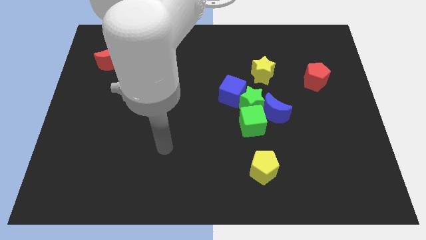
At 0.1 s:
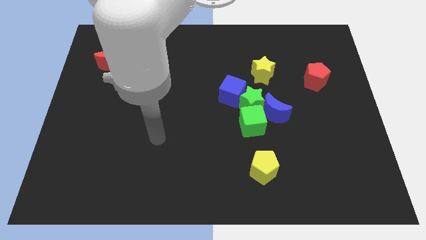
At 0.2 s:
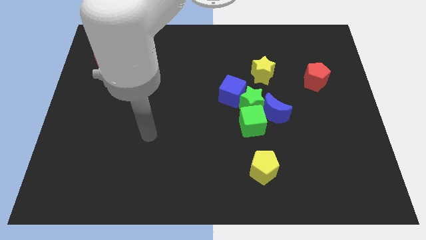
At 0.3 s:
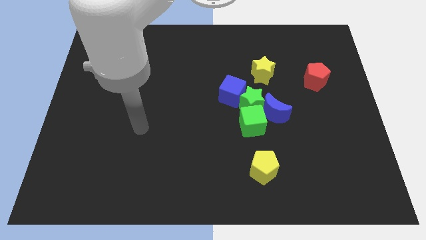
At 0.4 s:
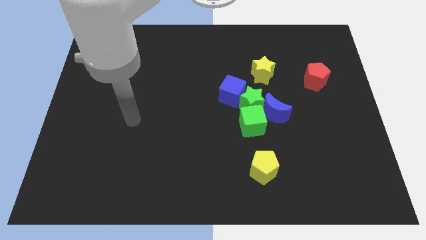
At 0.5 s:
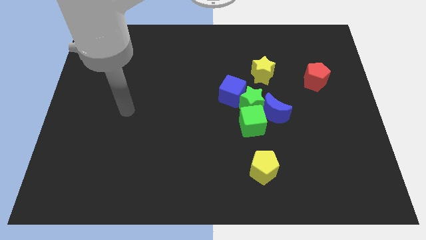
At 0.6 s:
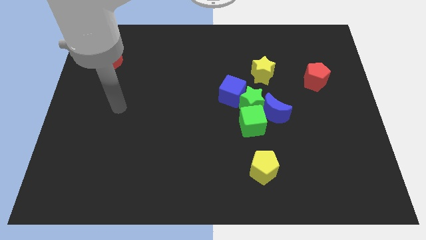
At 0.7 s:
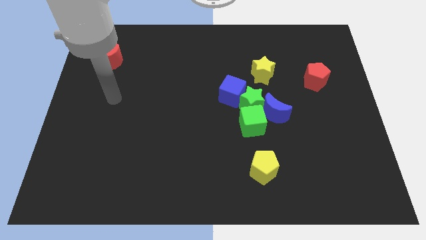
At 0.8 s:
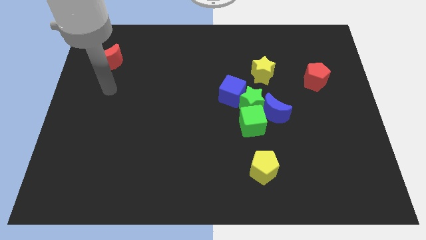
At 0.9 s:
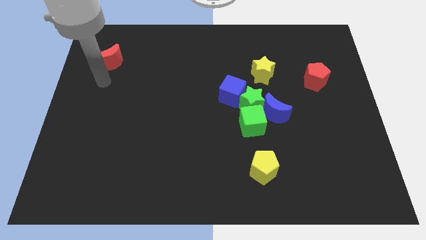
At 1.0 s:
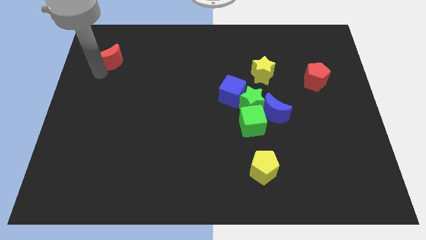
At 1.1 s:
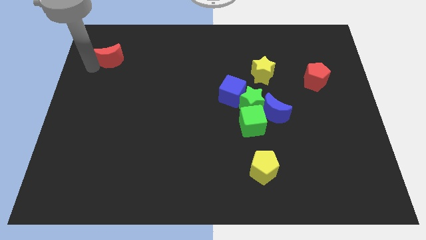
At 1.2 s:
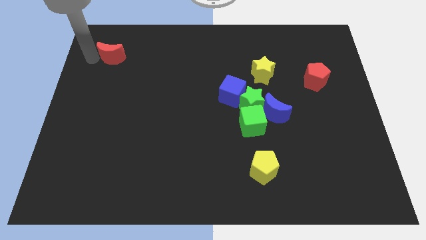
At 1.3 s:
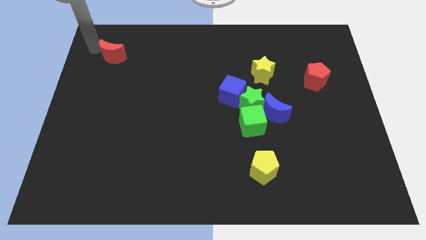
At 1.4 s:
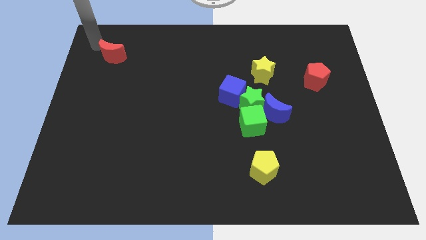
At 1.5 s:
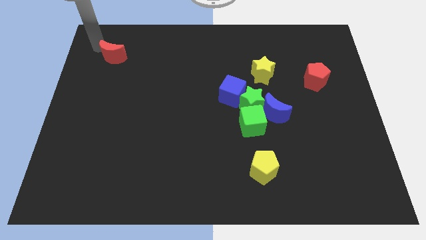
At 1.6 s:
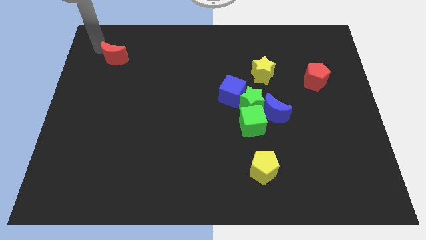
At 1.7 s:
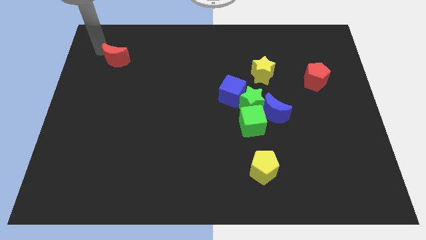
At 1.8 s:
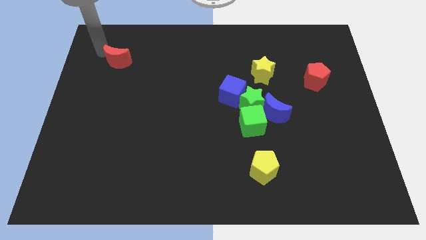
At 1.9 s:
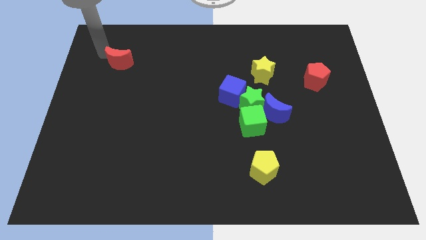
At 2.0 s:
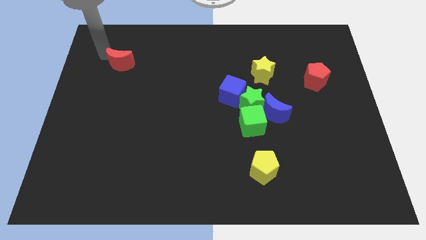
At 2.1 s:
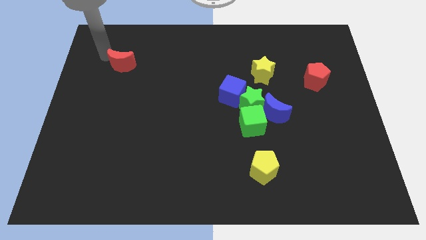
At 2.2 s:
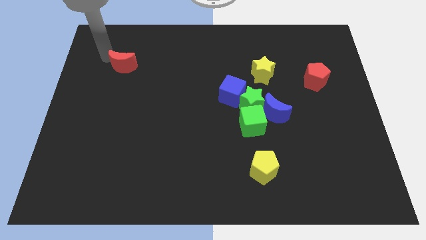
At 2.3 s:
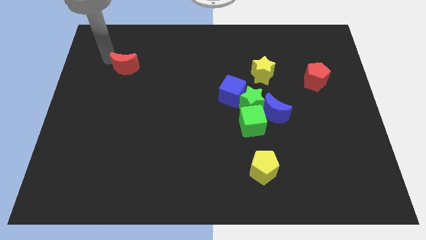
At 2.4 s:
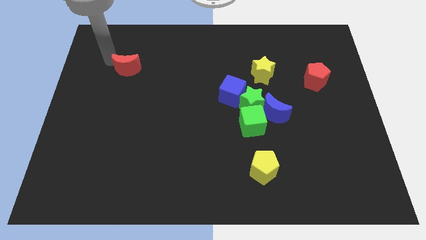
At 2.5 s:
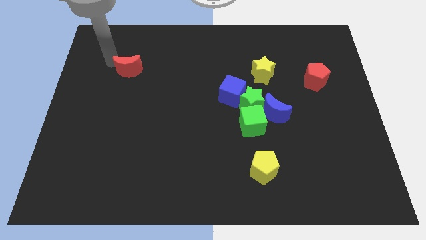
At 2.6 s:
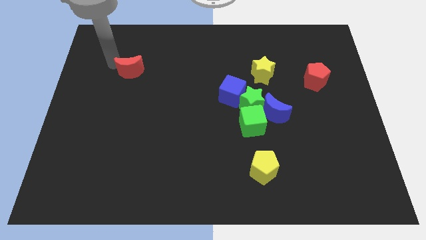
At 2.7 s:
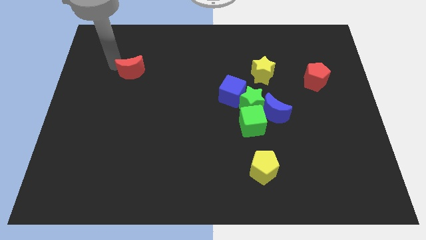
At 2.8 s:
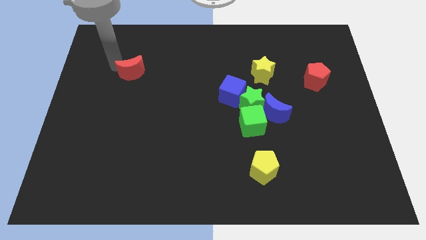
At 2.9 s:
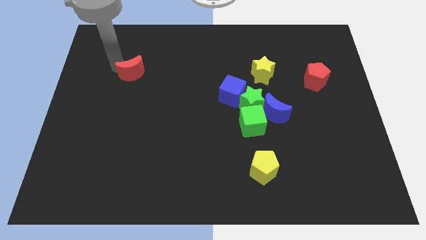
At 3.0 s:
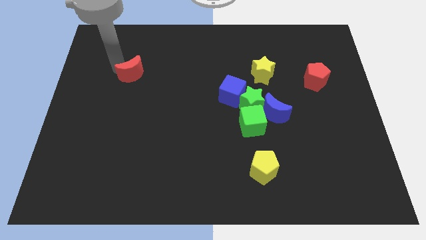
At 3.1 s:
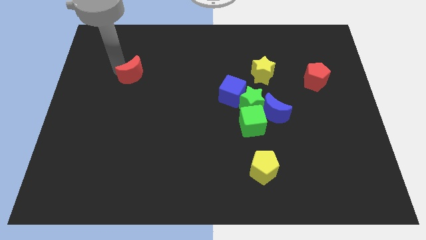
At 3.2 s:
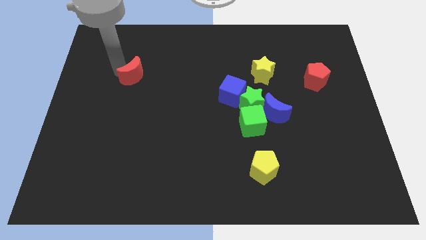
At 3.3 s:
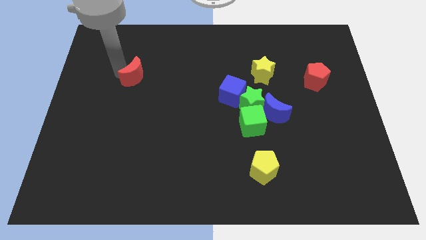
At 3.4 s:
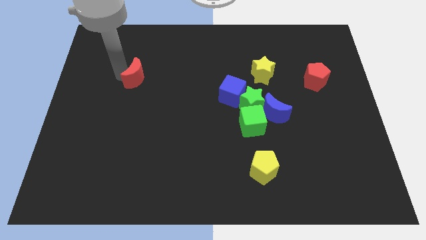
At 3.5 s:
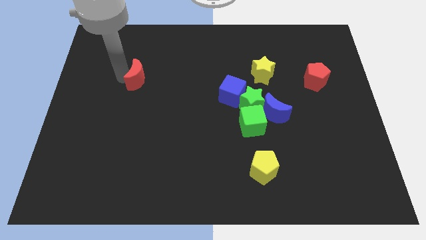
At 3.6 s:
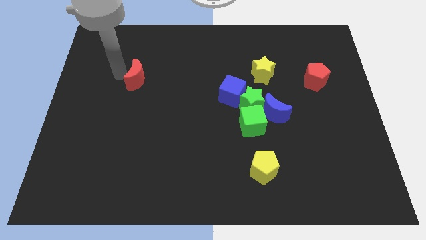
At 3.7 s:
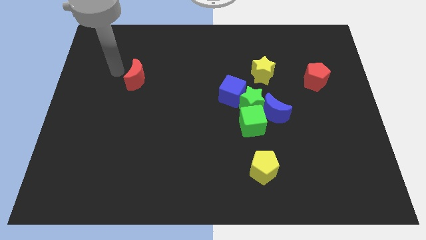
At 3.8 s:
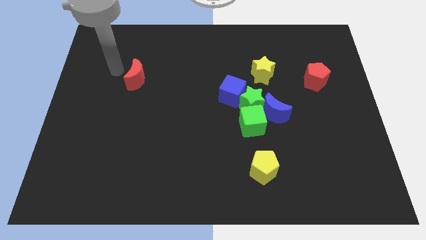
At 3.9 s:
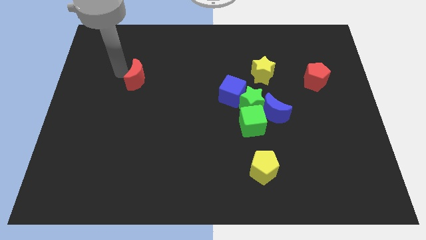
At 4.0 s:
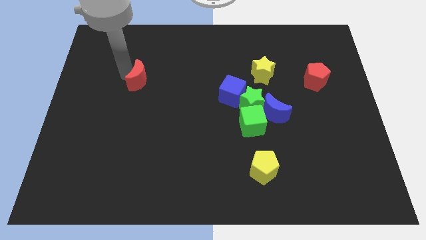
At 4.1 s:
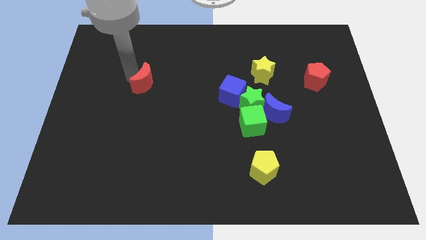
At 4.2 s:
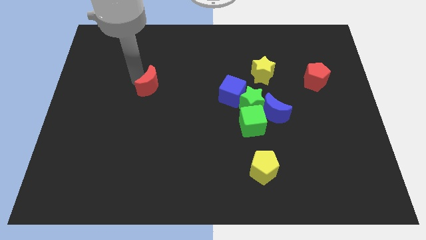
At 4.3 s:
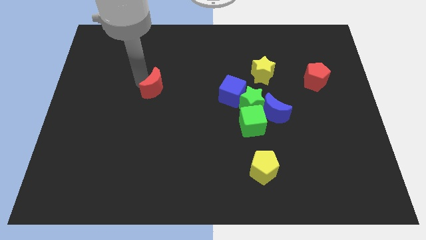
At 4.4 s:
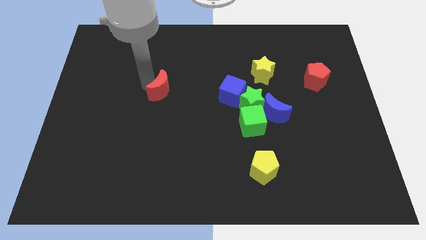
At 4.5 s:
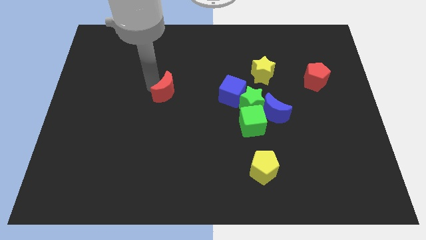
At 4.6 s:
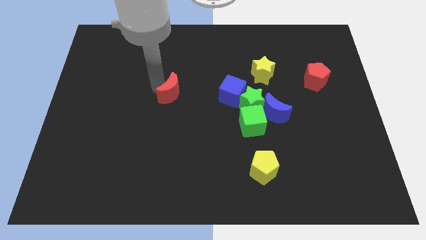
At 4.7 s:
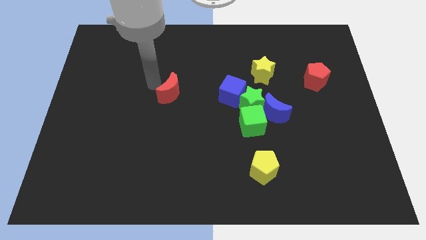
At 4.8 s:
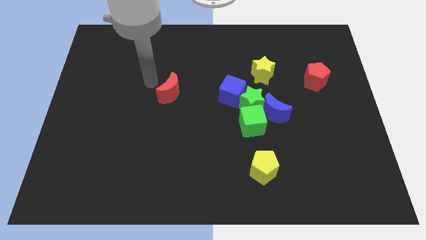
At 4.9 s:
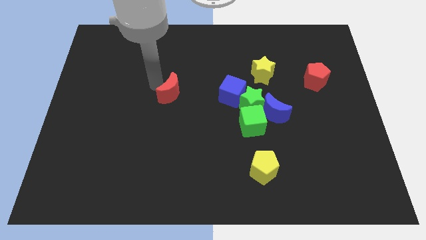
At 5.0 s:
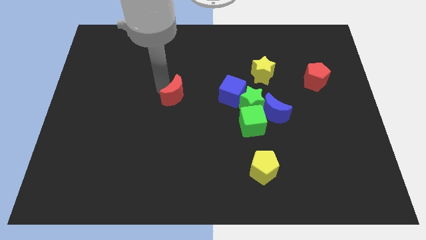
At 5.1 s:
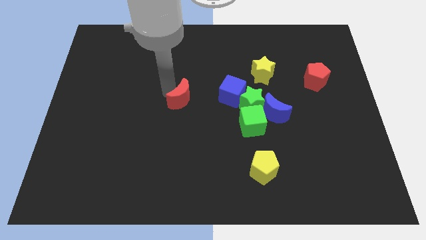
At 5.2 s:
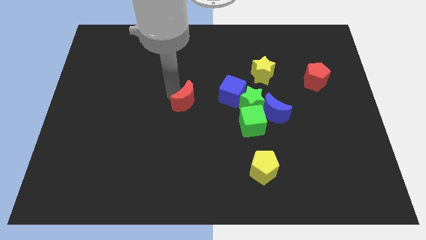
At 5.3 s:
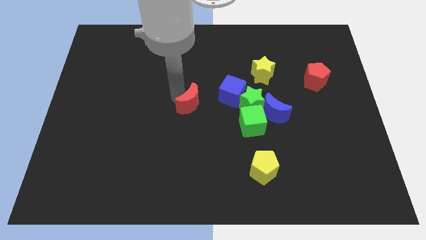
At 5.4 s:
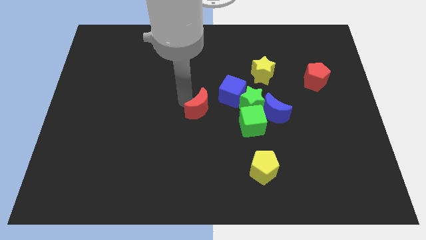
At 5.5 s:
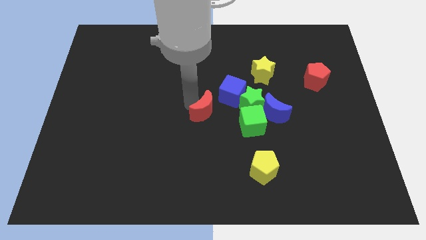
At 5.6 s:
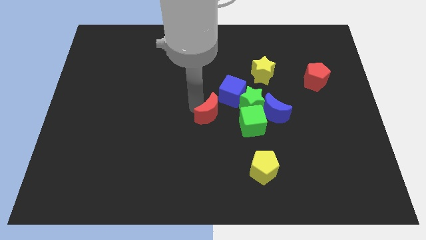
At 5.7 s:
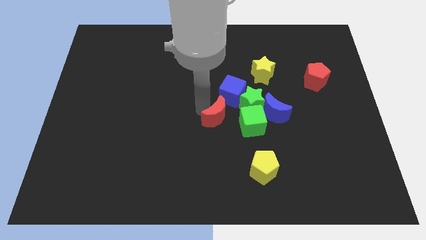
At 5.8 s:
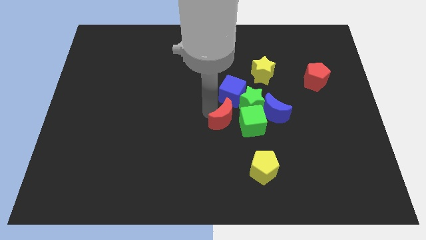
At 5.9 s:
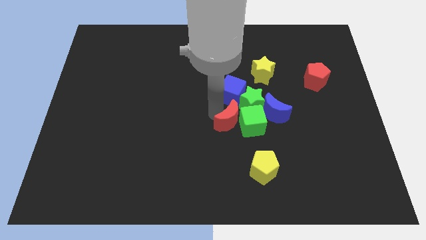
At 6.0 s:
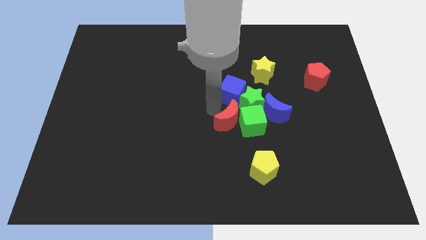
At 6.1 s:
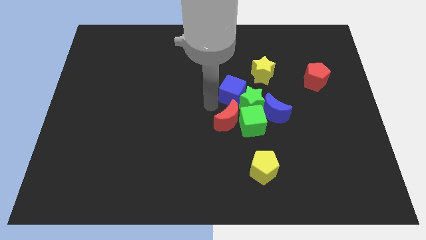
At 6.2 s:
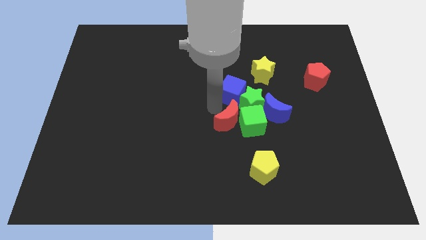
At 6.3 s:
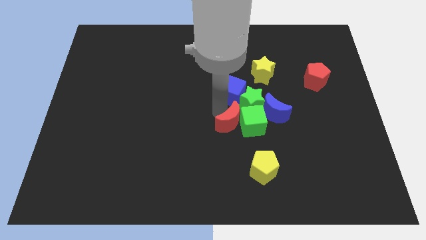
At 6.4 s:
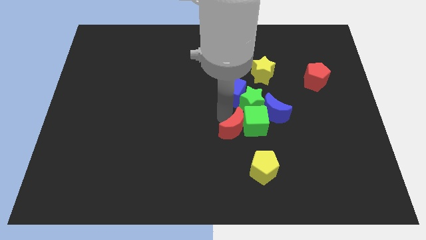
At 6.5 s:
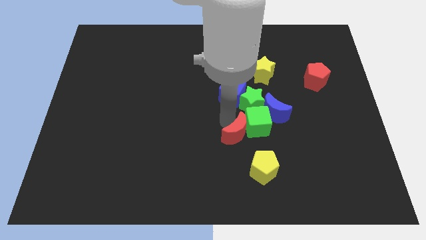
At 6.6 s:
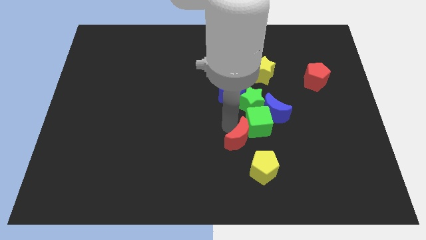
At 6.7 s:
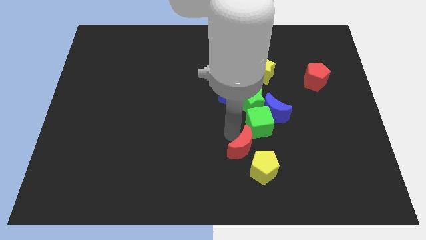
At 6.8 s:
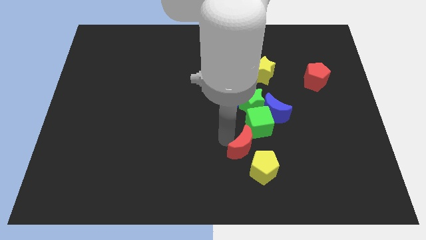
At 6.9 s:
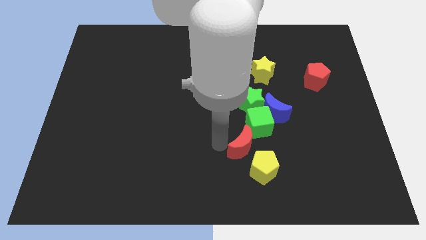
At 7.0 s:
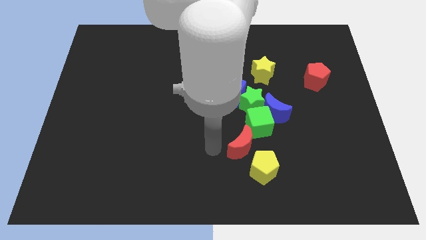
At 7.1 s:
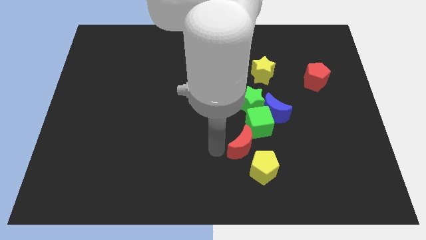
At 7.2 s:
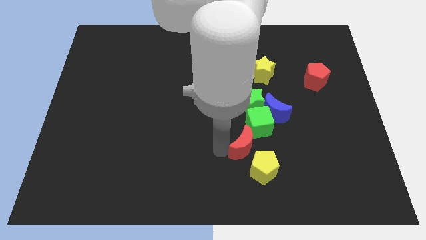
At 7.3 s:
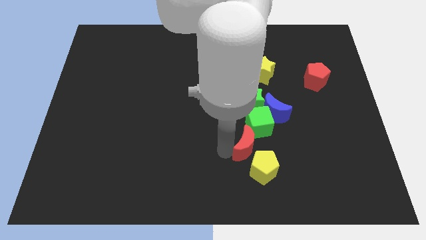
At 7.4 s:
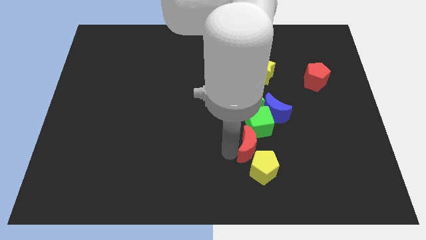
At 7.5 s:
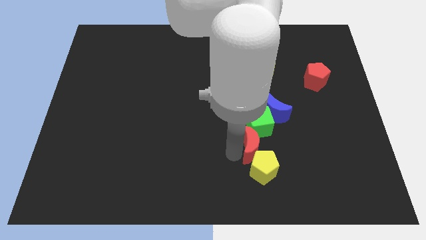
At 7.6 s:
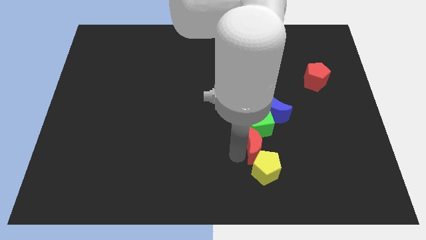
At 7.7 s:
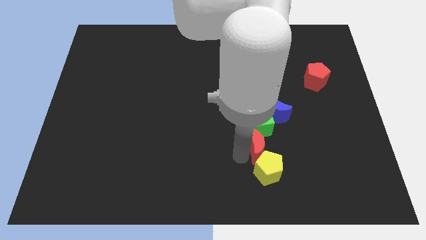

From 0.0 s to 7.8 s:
move the red moon to the bottom right of the green cube
